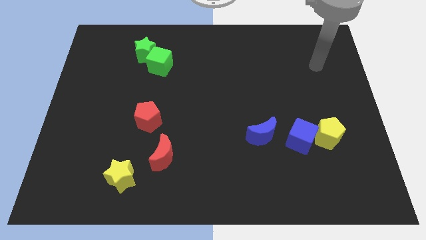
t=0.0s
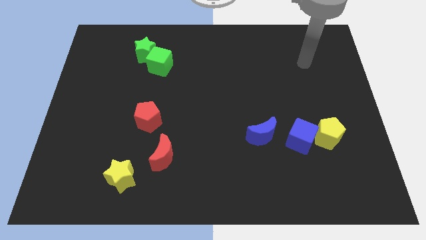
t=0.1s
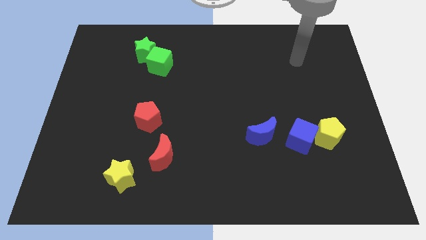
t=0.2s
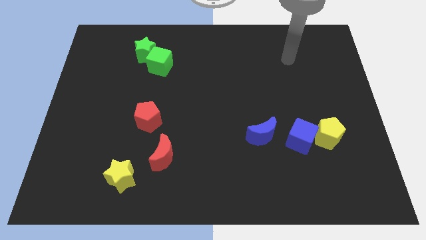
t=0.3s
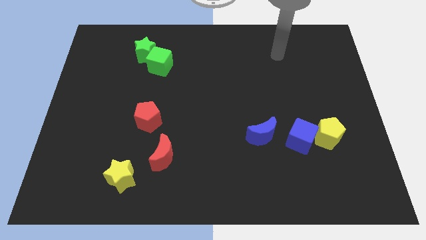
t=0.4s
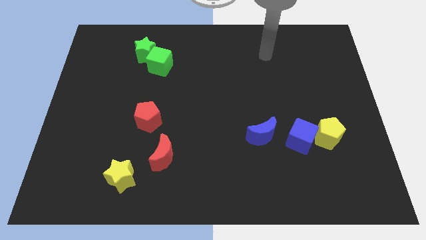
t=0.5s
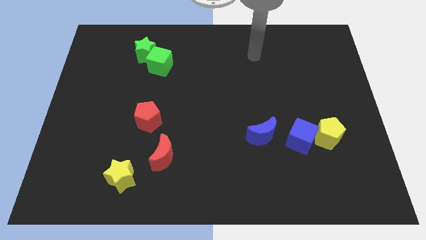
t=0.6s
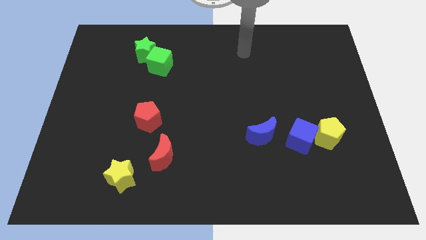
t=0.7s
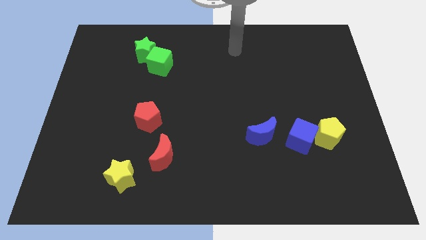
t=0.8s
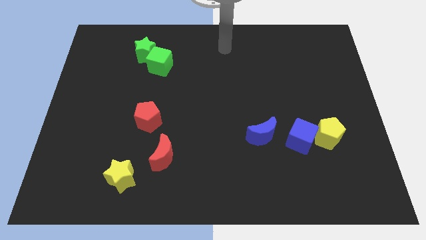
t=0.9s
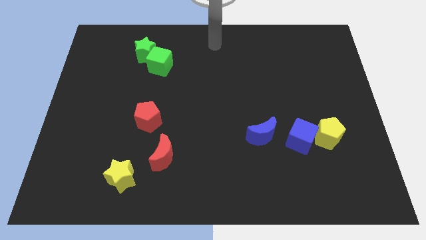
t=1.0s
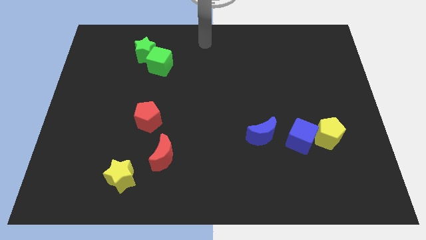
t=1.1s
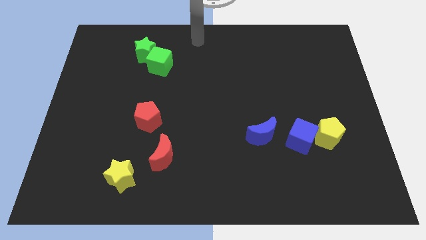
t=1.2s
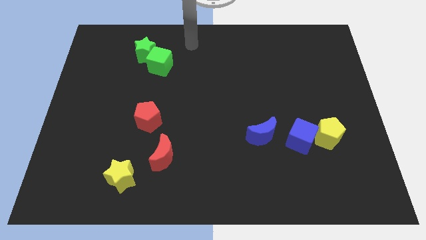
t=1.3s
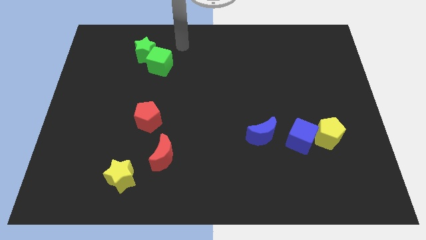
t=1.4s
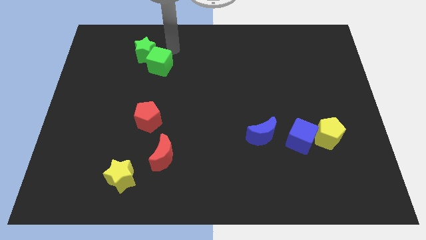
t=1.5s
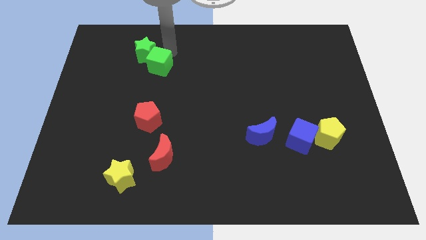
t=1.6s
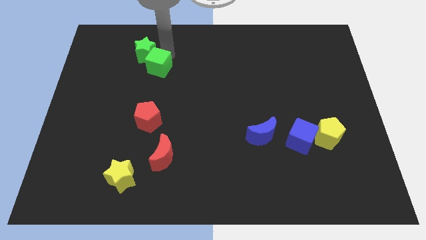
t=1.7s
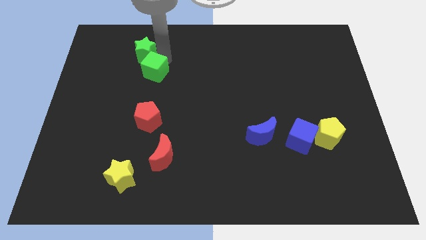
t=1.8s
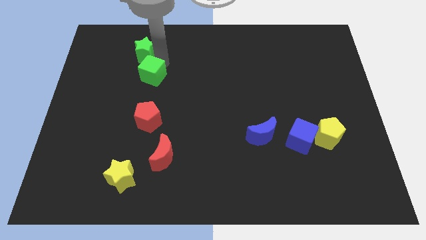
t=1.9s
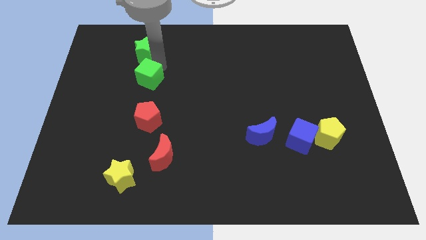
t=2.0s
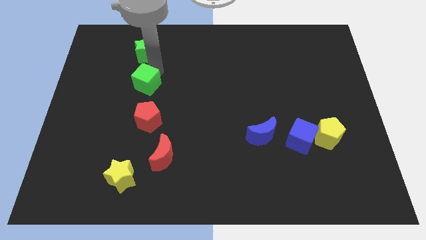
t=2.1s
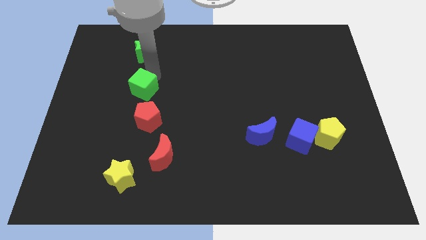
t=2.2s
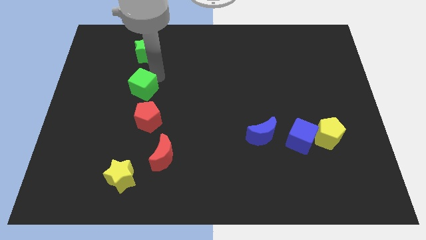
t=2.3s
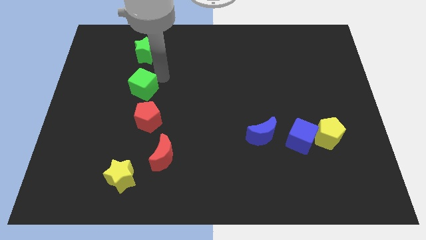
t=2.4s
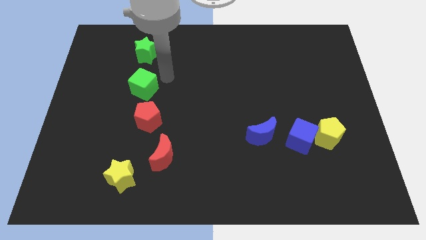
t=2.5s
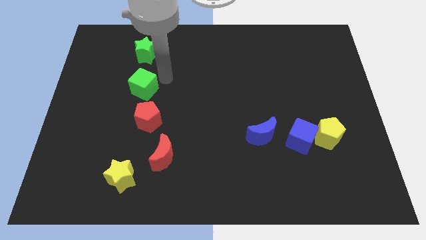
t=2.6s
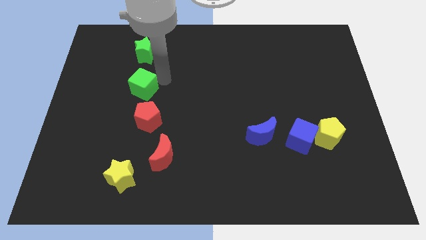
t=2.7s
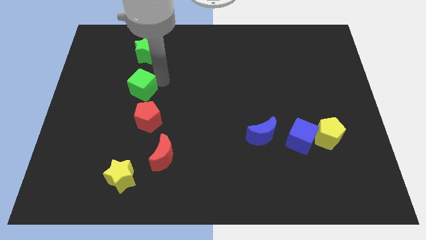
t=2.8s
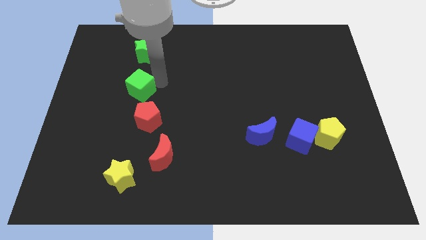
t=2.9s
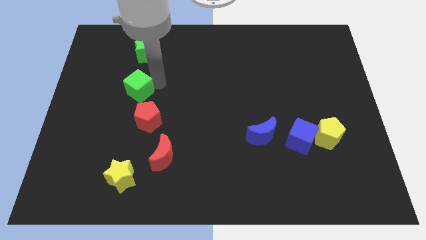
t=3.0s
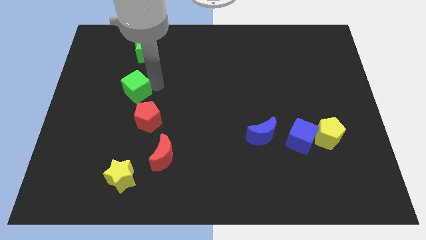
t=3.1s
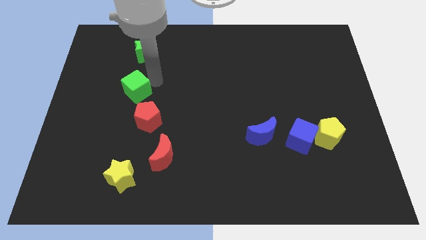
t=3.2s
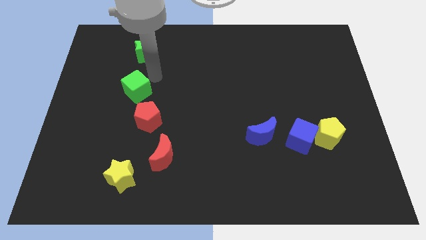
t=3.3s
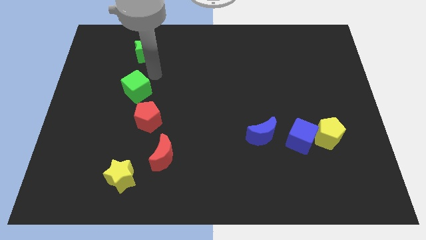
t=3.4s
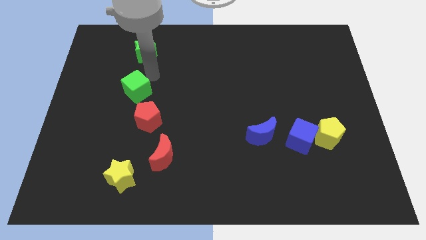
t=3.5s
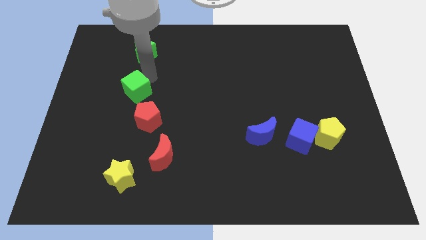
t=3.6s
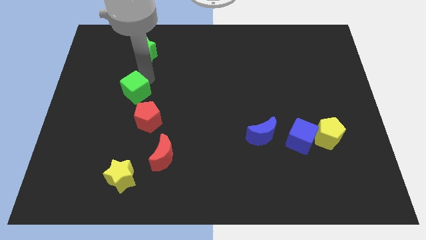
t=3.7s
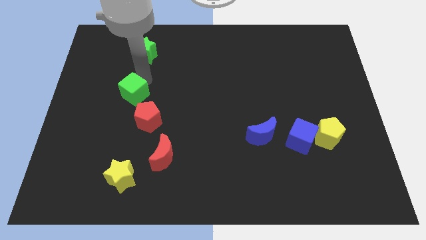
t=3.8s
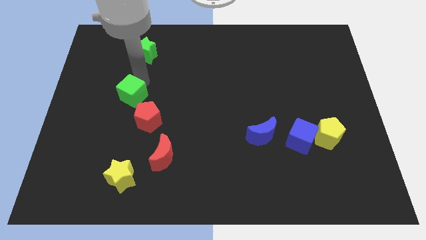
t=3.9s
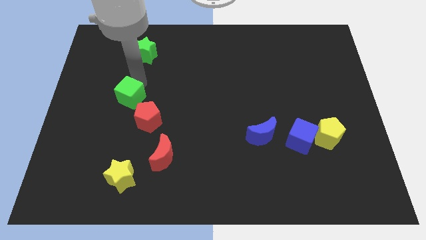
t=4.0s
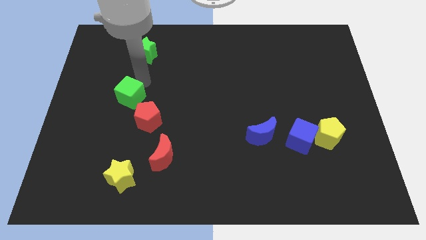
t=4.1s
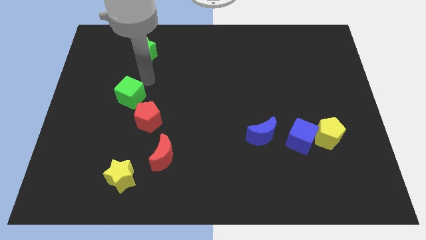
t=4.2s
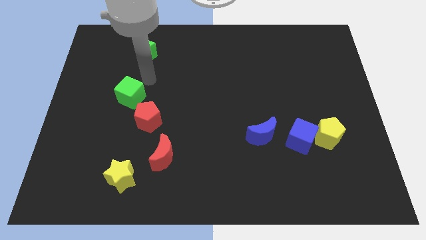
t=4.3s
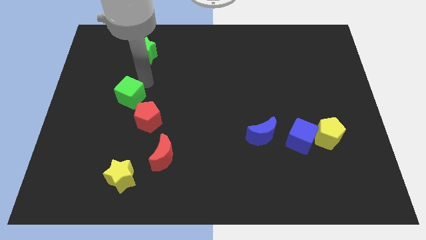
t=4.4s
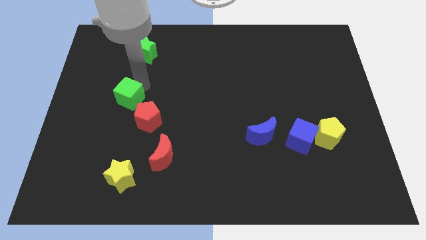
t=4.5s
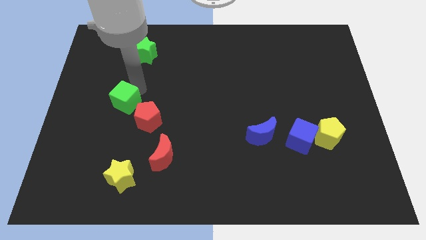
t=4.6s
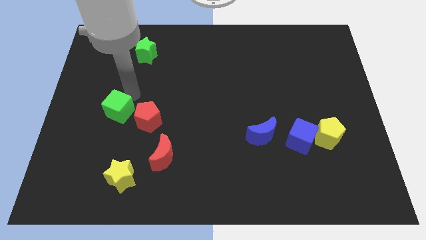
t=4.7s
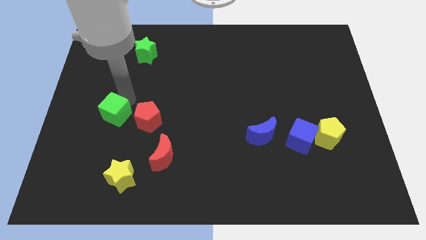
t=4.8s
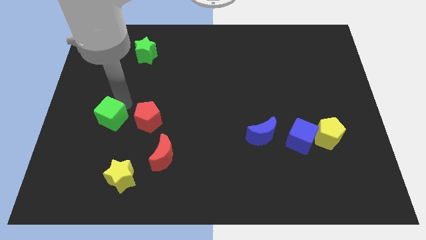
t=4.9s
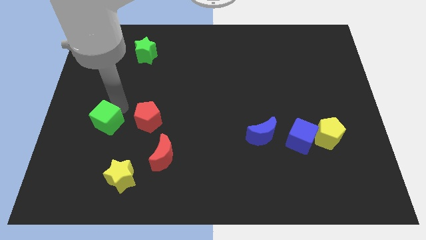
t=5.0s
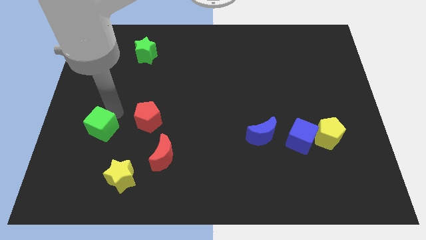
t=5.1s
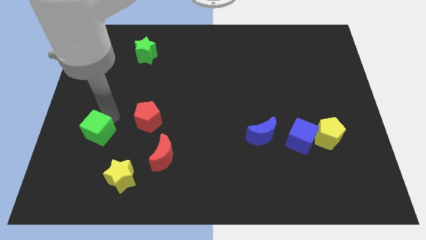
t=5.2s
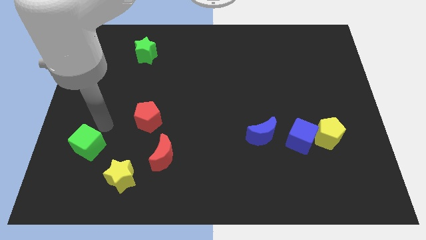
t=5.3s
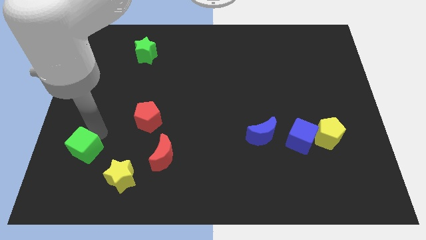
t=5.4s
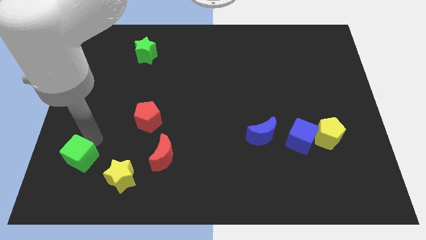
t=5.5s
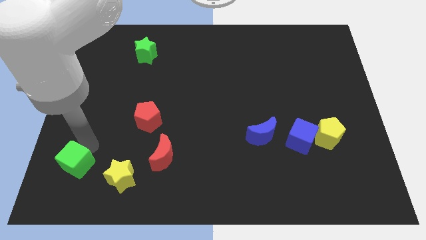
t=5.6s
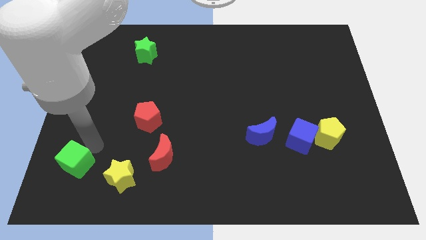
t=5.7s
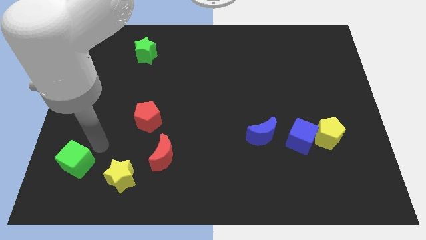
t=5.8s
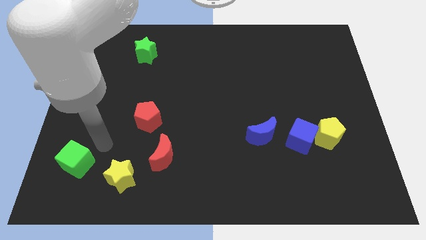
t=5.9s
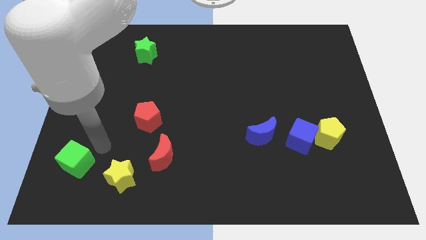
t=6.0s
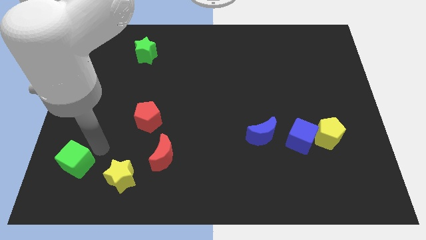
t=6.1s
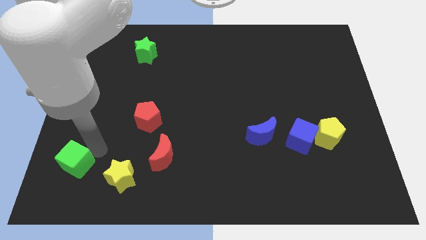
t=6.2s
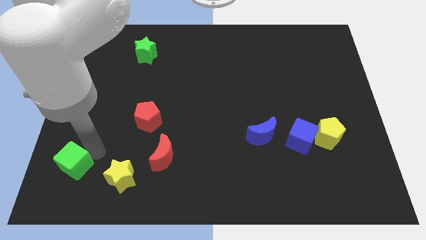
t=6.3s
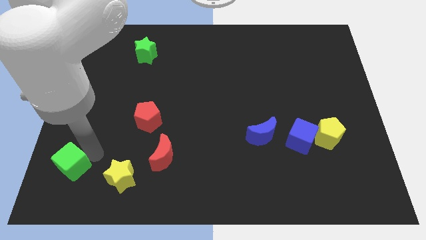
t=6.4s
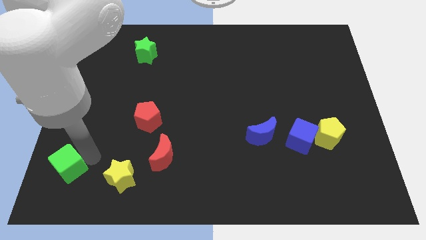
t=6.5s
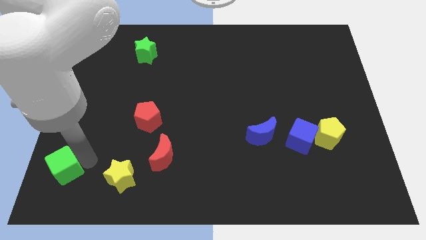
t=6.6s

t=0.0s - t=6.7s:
slide the green cube to the bottom left of the board

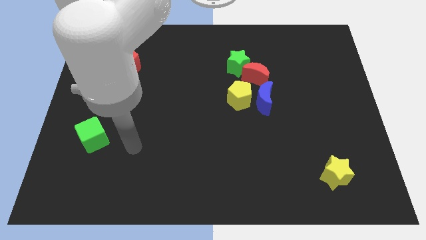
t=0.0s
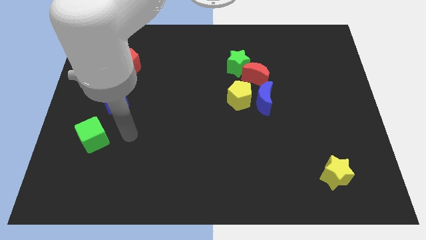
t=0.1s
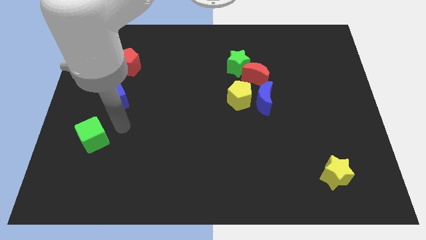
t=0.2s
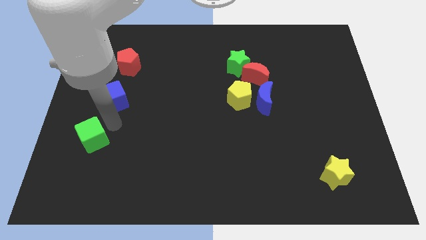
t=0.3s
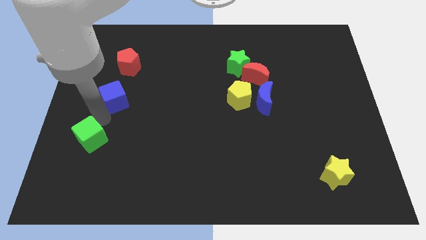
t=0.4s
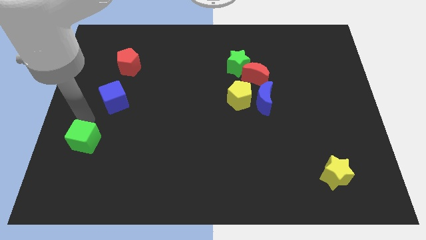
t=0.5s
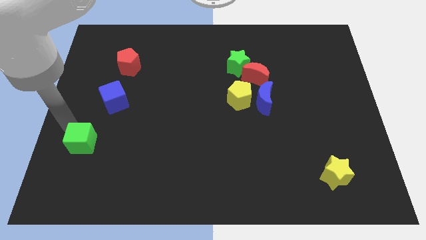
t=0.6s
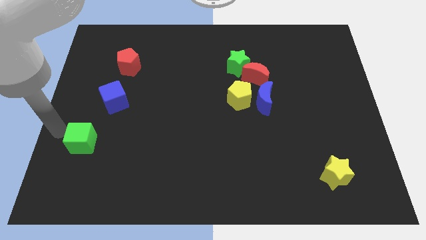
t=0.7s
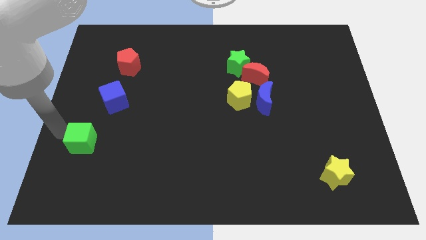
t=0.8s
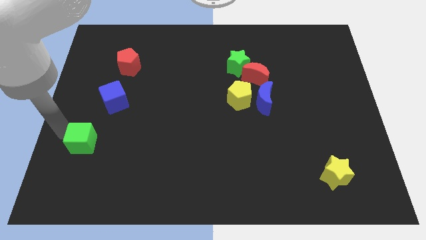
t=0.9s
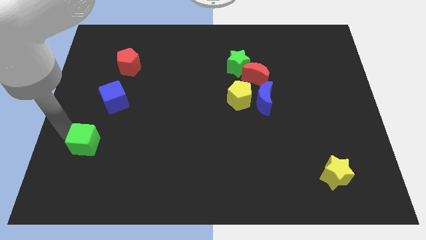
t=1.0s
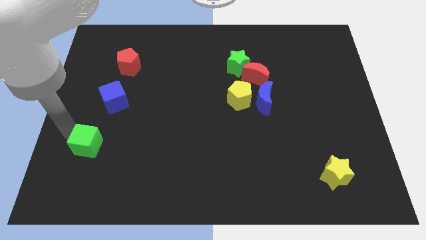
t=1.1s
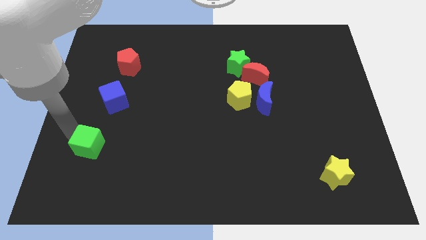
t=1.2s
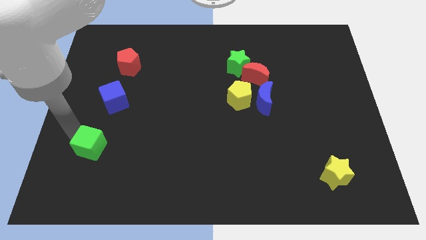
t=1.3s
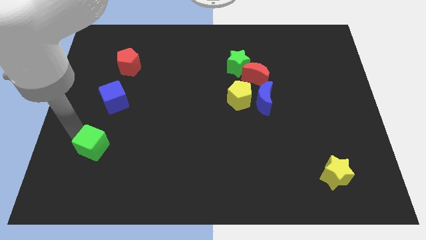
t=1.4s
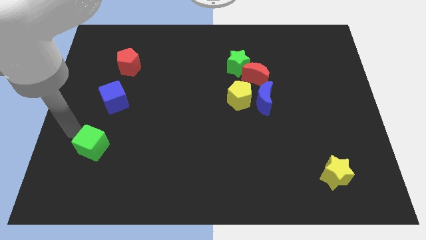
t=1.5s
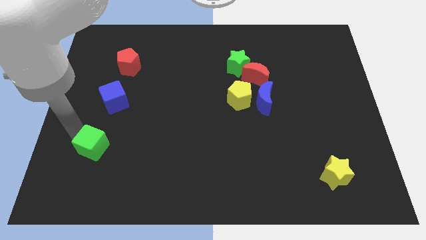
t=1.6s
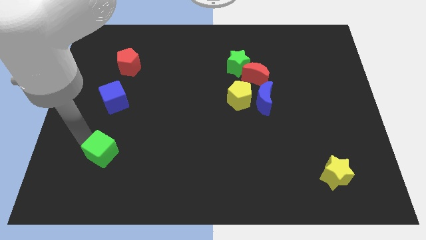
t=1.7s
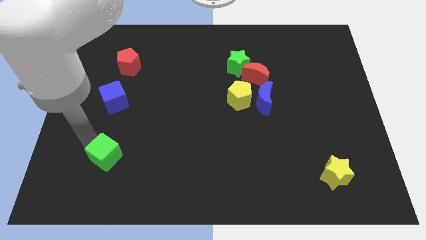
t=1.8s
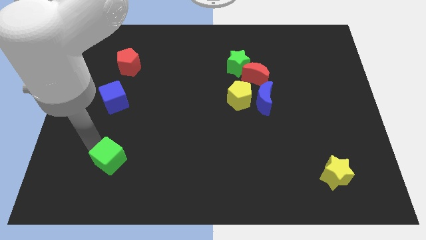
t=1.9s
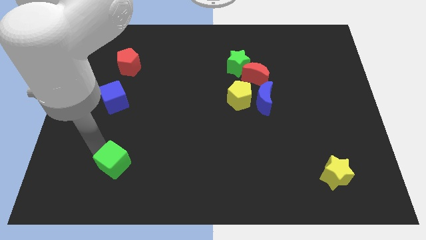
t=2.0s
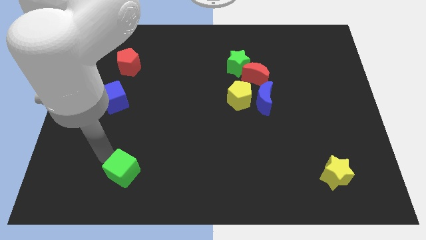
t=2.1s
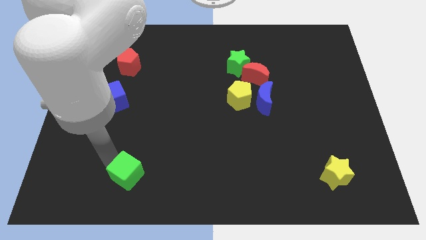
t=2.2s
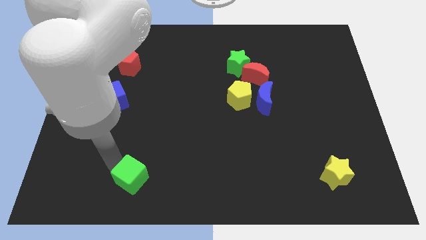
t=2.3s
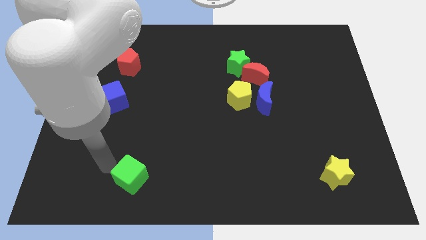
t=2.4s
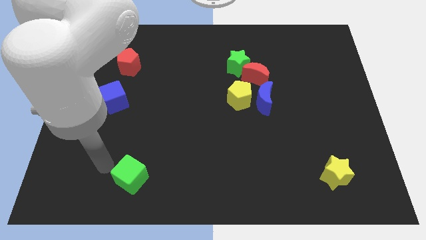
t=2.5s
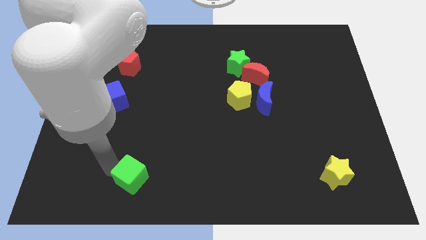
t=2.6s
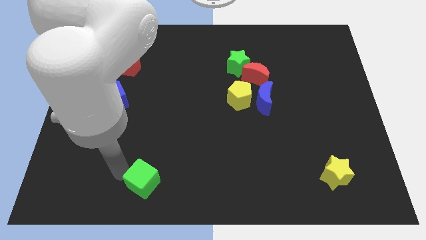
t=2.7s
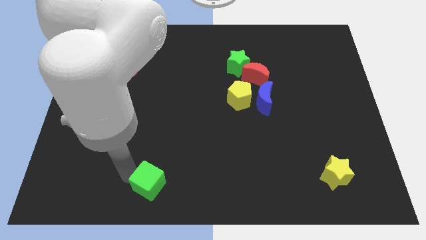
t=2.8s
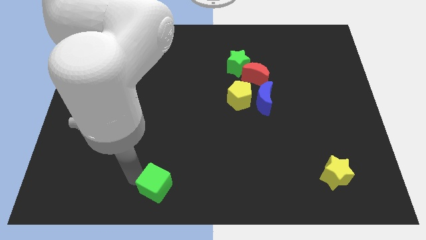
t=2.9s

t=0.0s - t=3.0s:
push the green cube to the bottom
